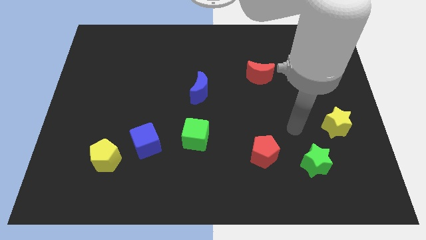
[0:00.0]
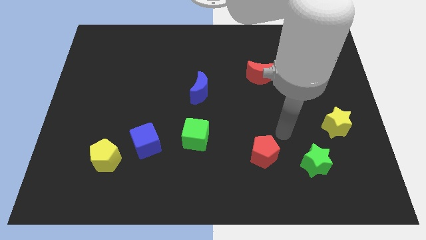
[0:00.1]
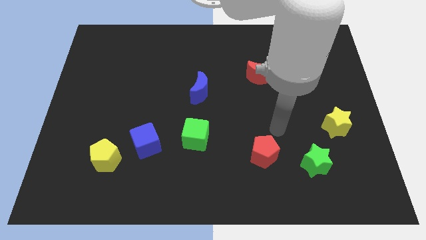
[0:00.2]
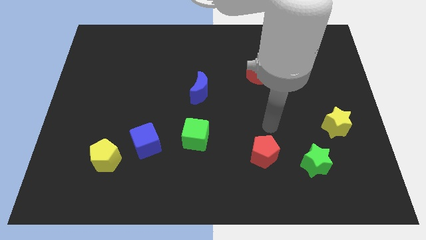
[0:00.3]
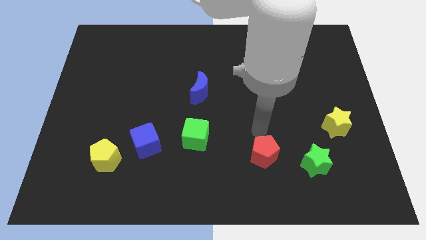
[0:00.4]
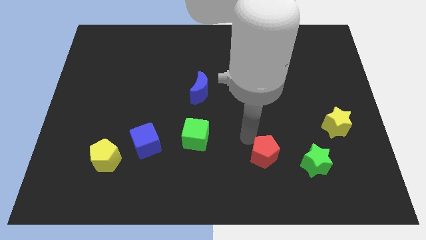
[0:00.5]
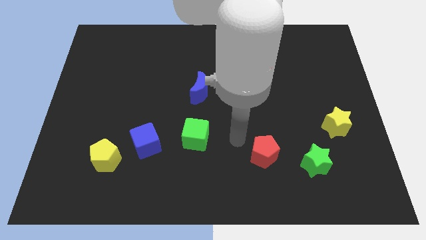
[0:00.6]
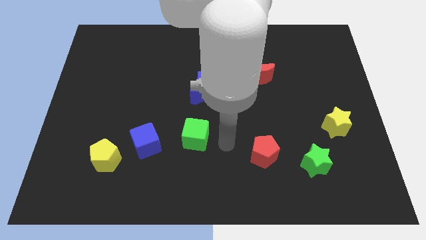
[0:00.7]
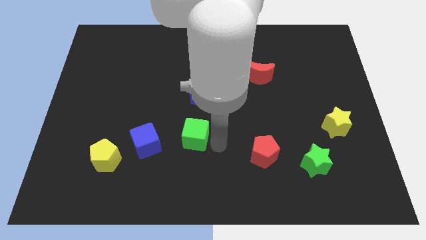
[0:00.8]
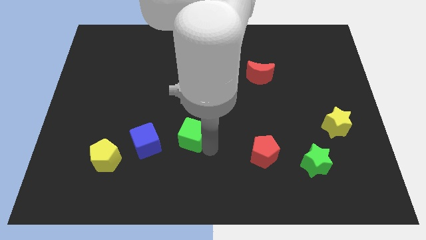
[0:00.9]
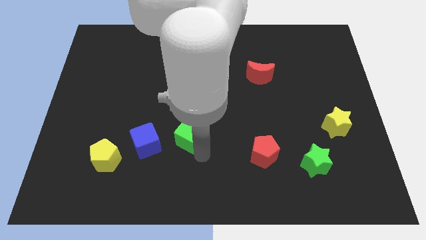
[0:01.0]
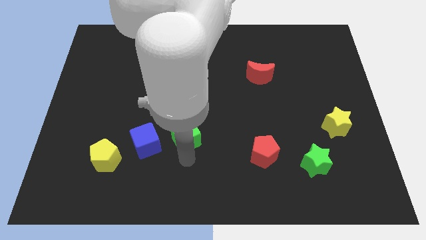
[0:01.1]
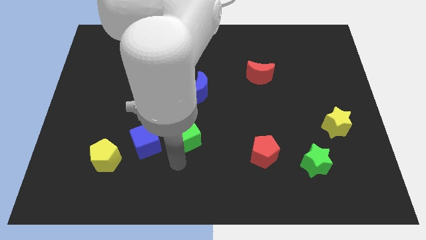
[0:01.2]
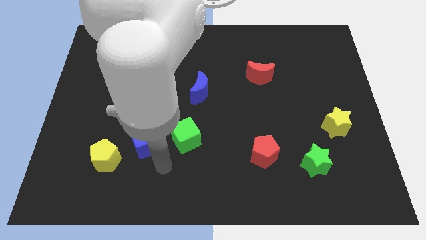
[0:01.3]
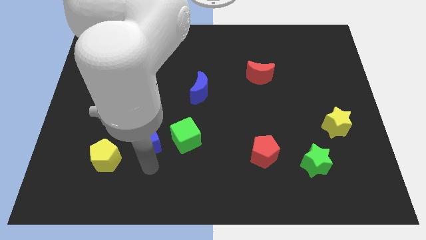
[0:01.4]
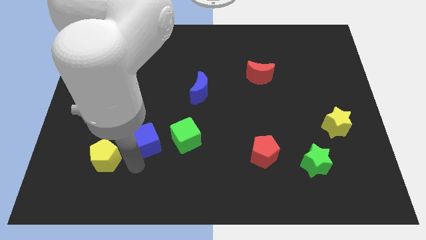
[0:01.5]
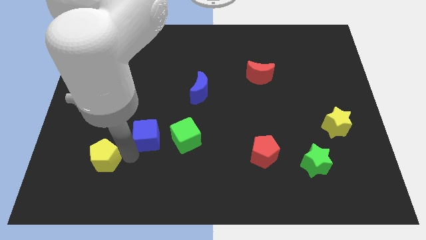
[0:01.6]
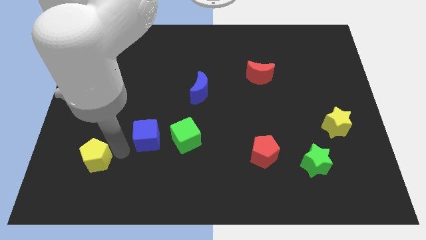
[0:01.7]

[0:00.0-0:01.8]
pull the blue cube apart from the yellow pentagon

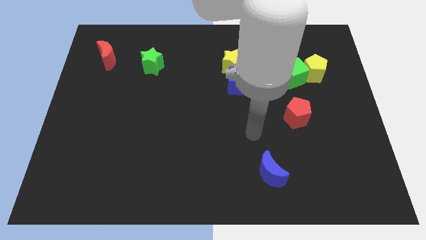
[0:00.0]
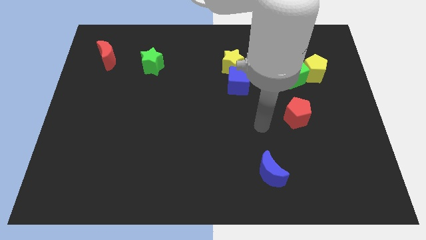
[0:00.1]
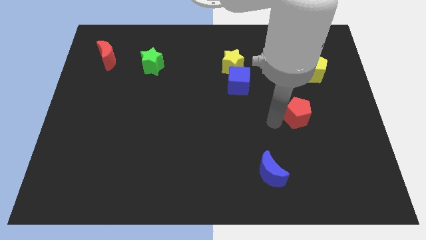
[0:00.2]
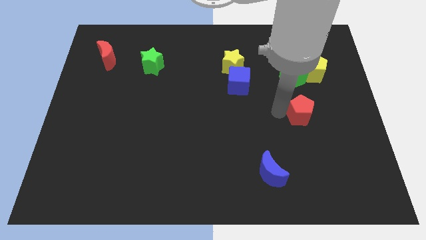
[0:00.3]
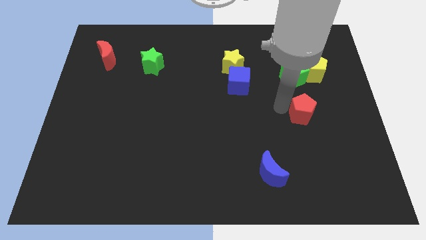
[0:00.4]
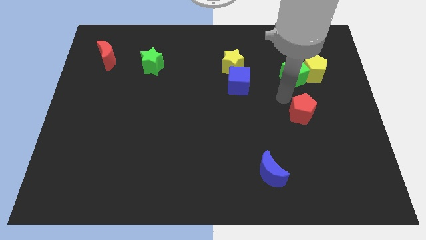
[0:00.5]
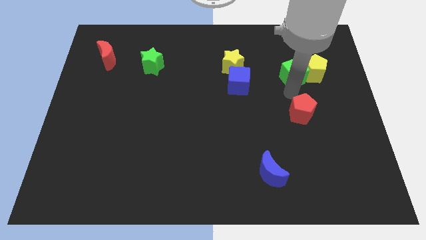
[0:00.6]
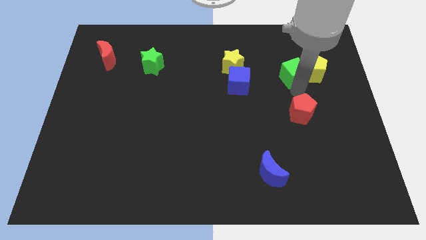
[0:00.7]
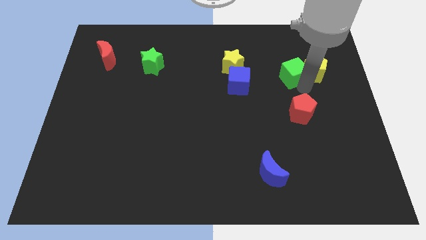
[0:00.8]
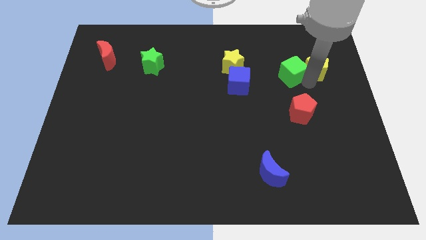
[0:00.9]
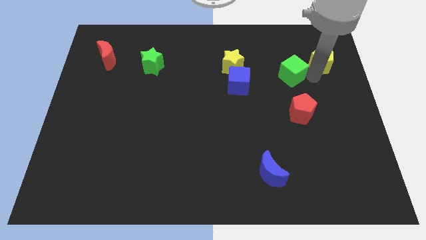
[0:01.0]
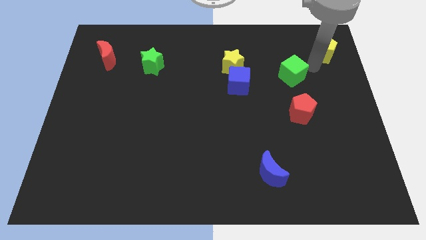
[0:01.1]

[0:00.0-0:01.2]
separate the green cube from the yellow pentagon

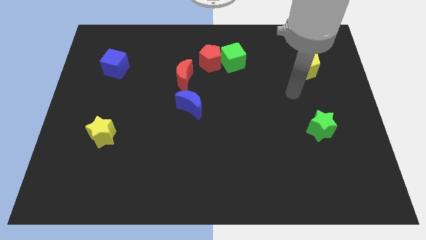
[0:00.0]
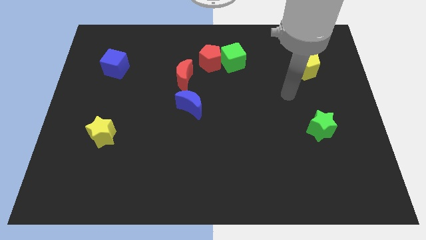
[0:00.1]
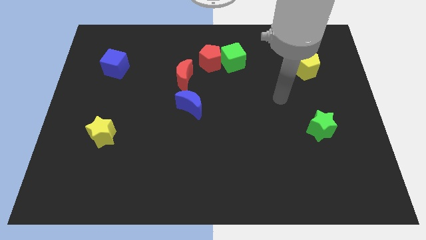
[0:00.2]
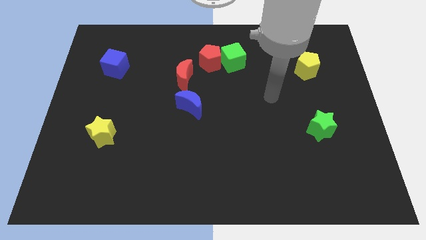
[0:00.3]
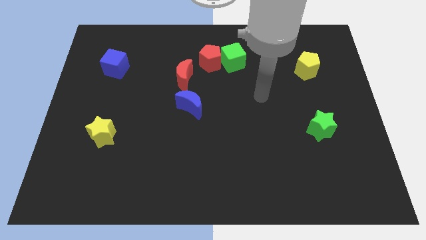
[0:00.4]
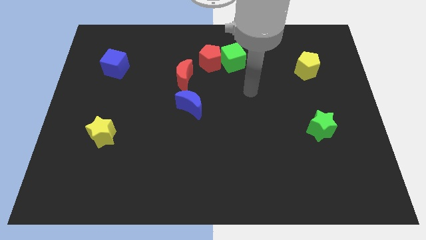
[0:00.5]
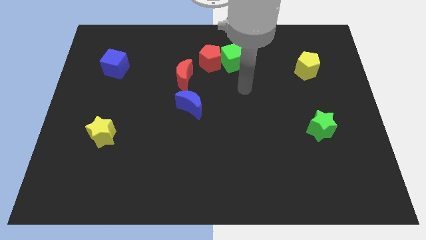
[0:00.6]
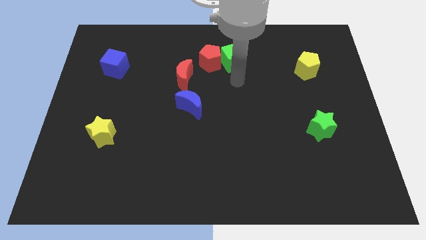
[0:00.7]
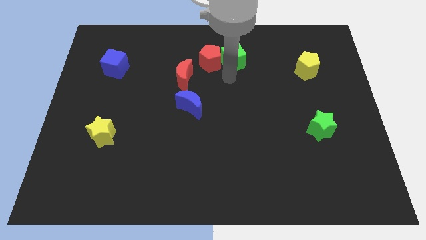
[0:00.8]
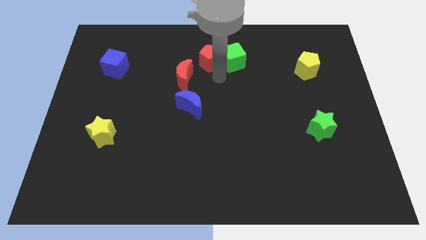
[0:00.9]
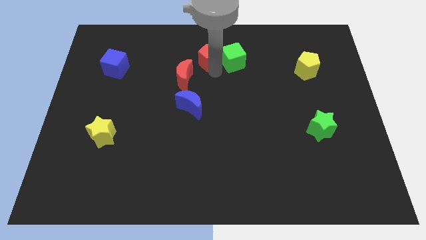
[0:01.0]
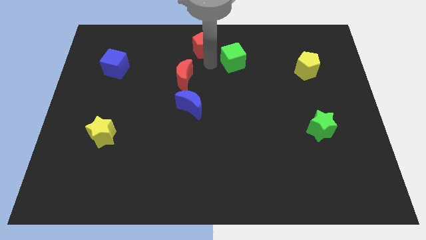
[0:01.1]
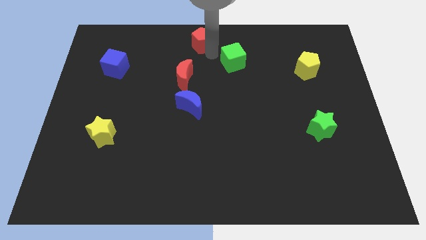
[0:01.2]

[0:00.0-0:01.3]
separate the green cube from the red pentagon

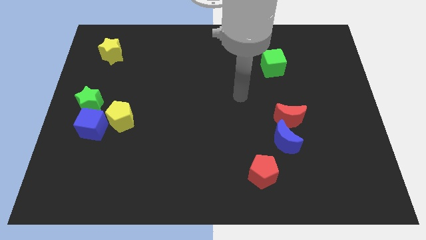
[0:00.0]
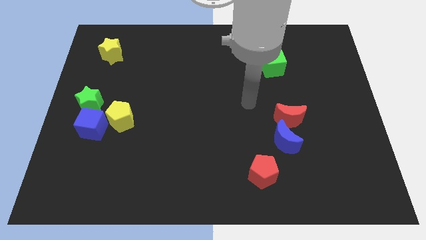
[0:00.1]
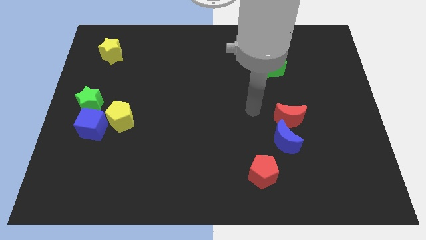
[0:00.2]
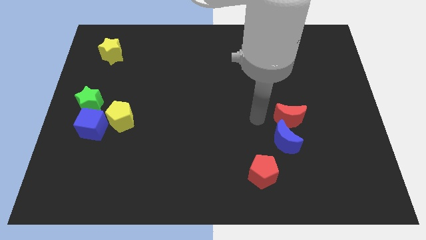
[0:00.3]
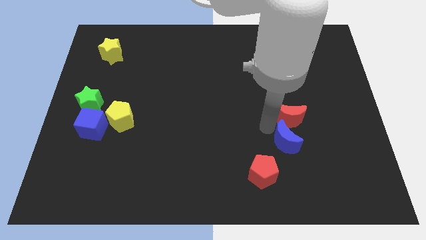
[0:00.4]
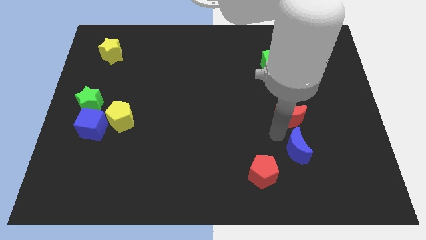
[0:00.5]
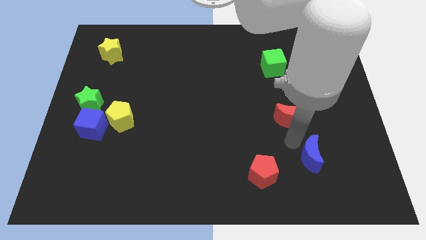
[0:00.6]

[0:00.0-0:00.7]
pull the red moon apart from the blue moon

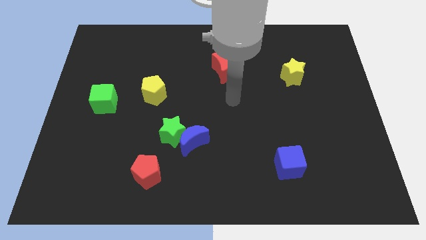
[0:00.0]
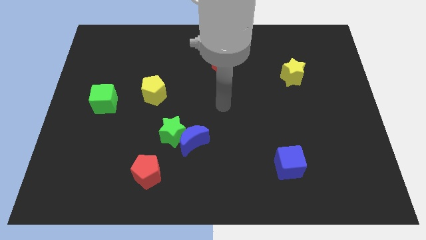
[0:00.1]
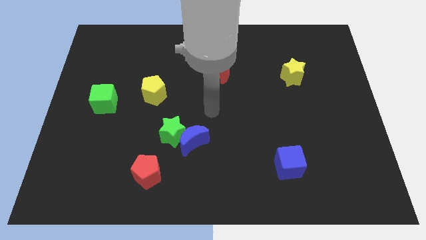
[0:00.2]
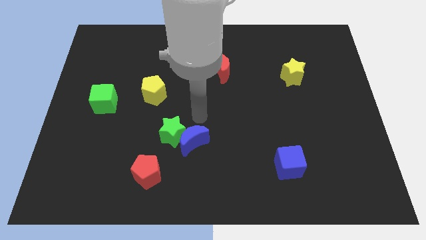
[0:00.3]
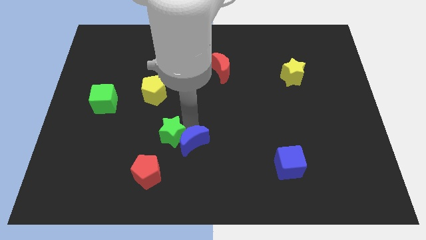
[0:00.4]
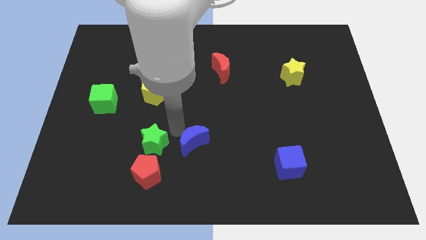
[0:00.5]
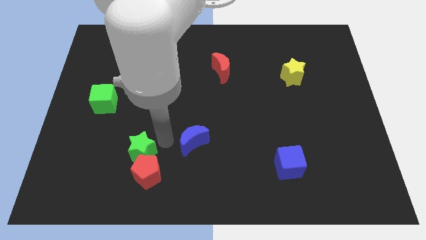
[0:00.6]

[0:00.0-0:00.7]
pull the blue moon apart from the green star

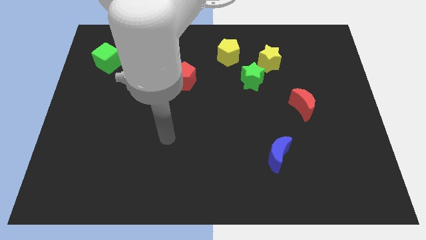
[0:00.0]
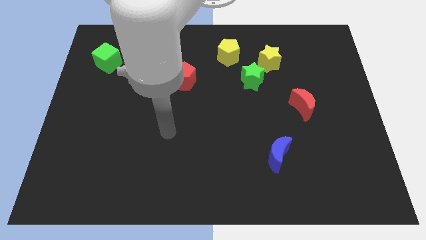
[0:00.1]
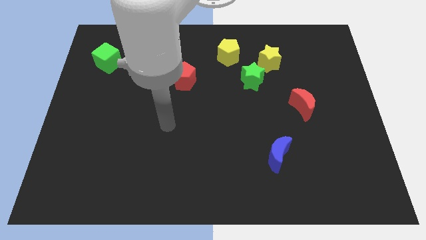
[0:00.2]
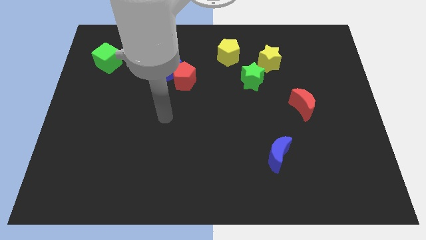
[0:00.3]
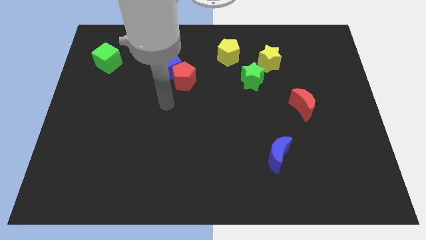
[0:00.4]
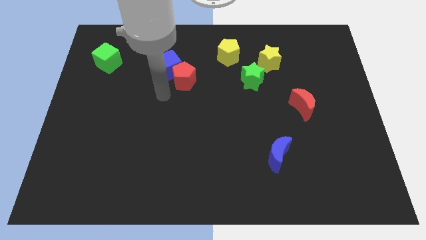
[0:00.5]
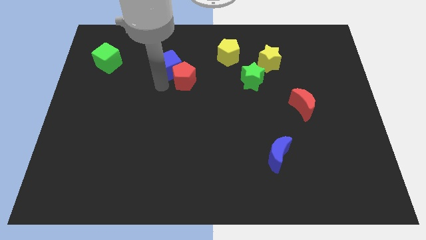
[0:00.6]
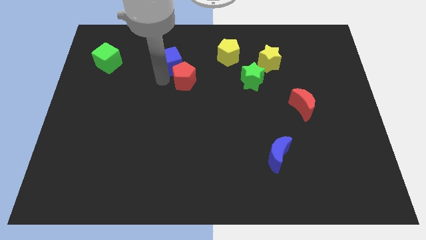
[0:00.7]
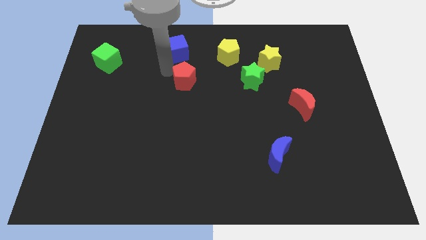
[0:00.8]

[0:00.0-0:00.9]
move the red pentagon away from the blue cube

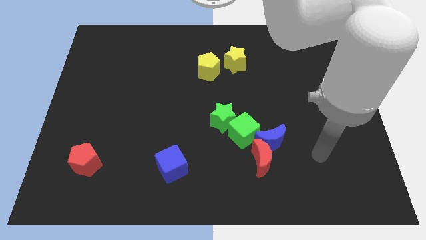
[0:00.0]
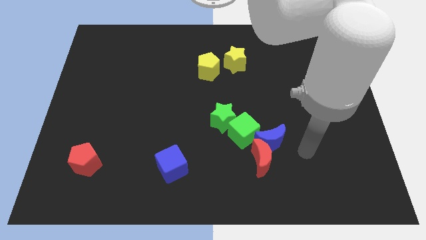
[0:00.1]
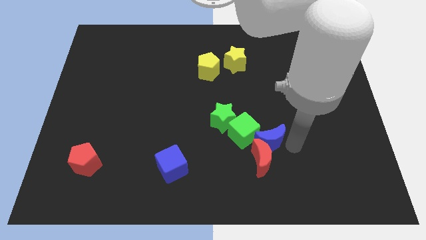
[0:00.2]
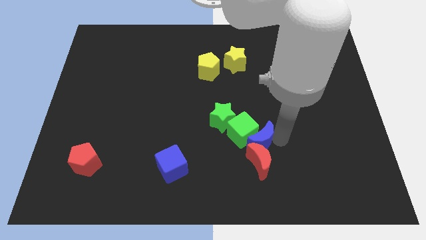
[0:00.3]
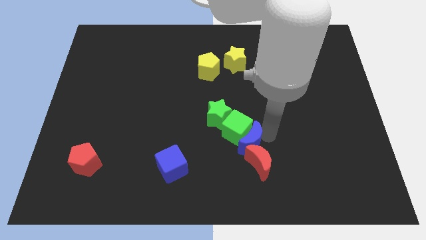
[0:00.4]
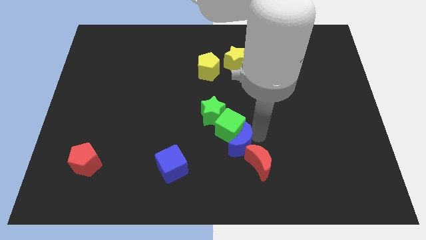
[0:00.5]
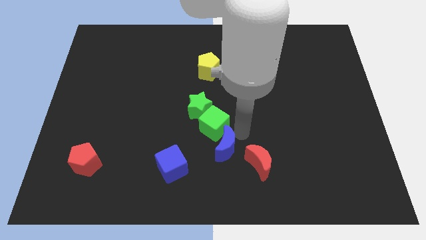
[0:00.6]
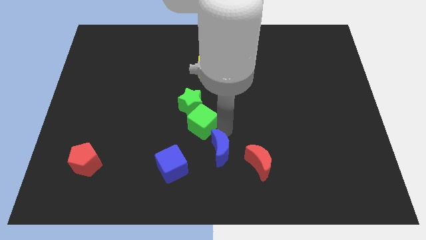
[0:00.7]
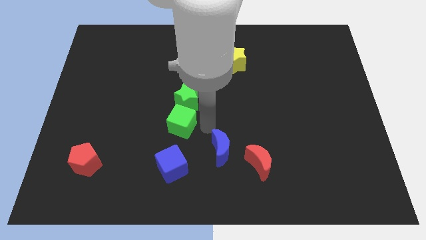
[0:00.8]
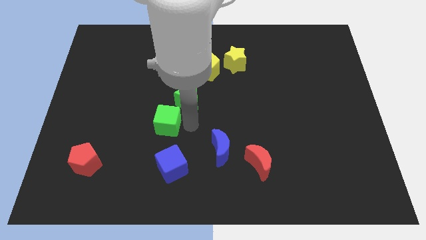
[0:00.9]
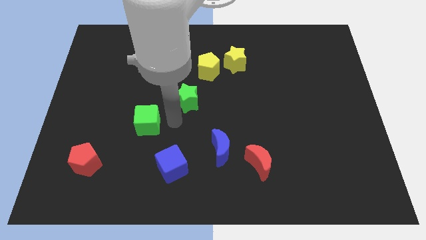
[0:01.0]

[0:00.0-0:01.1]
move the green star away from the green cube

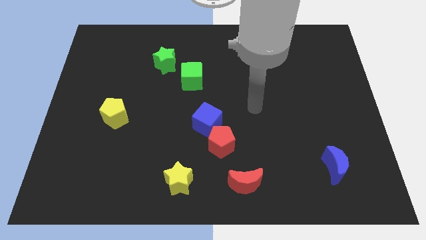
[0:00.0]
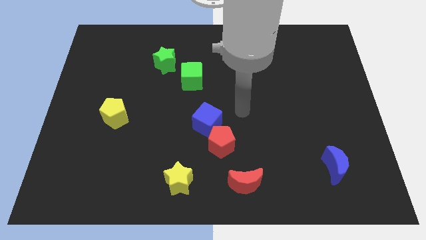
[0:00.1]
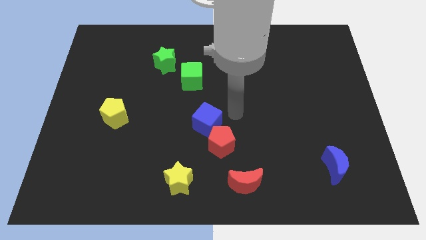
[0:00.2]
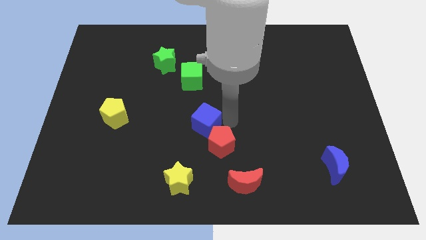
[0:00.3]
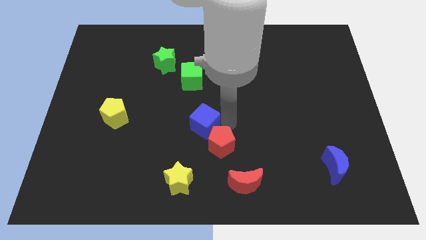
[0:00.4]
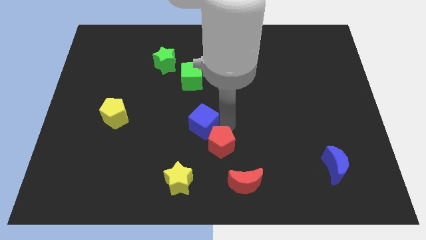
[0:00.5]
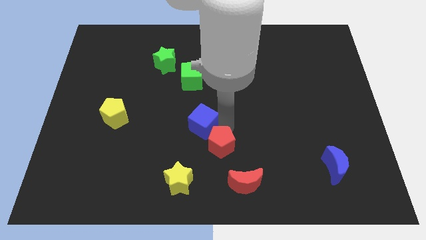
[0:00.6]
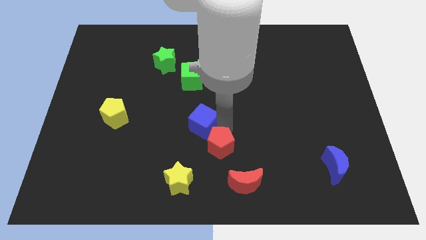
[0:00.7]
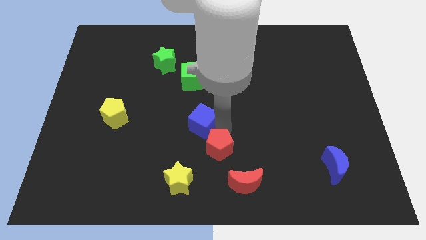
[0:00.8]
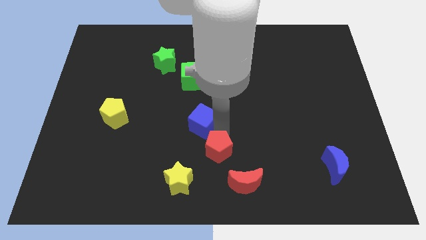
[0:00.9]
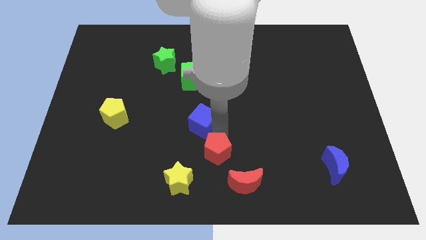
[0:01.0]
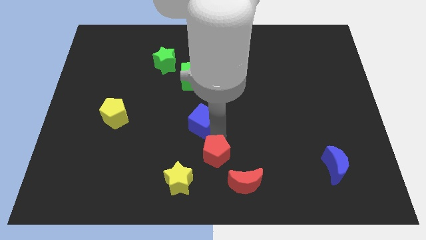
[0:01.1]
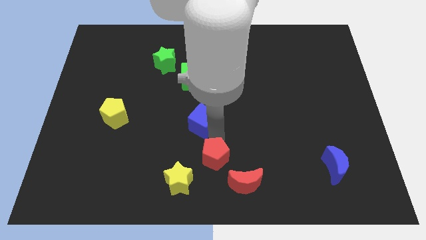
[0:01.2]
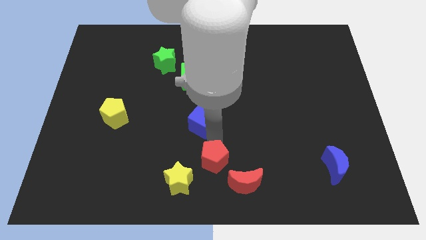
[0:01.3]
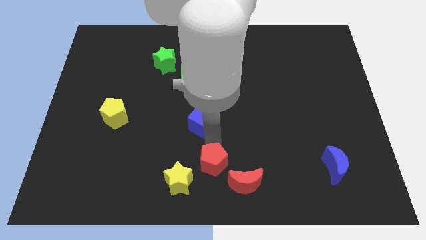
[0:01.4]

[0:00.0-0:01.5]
separate the red pentagon from the blue cube
